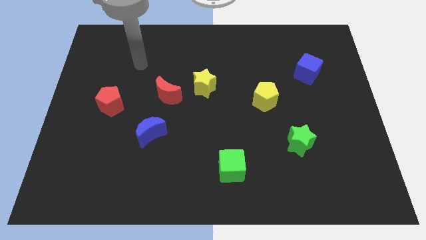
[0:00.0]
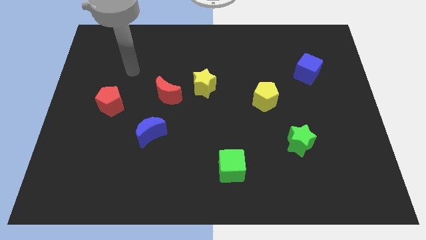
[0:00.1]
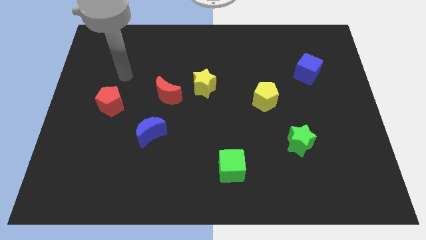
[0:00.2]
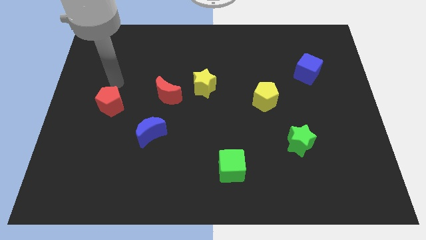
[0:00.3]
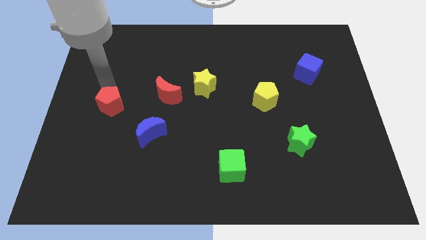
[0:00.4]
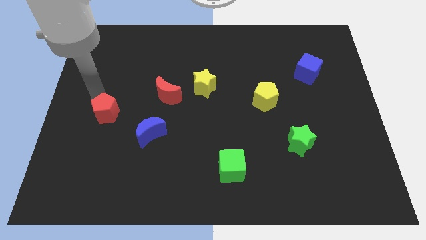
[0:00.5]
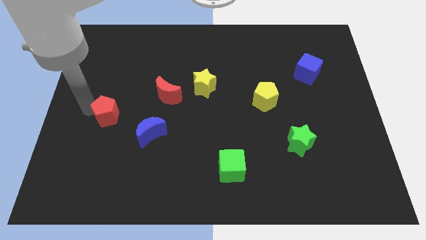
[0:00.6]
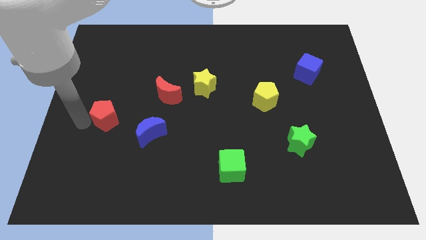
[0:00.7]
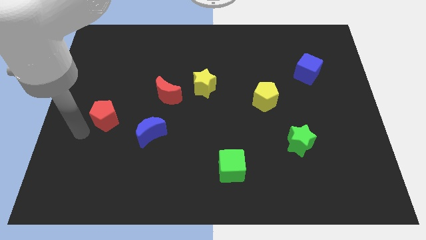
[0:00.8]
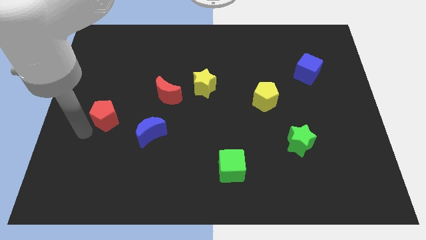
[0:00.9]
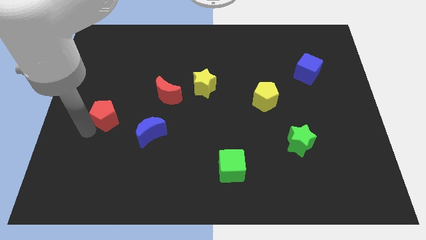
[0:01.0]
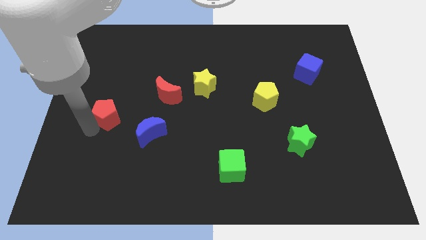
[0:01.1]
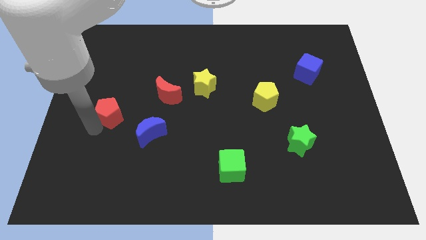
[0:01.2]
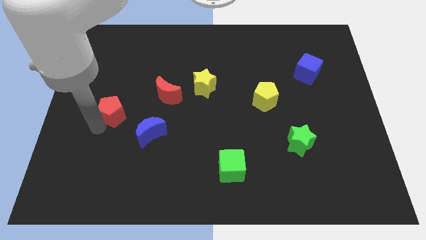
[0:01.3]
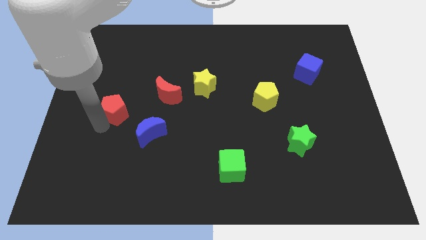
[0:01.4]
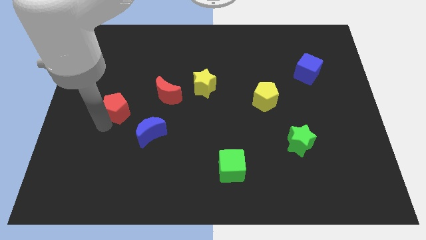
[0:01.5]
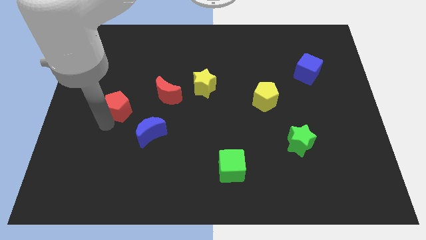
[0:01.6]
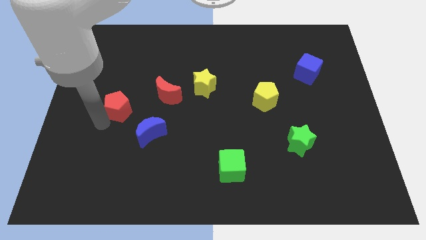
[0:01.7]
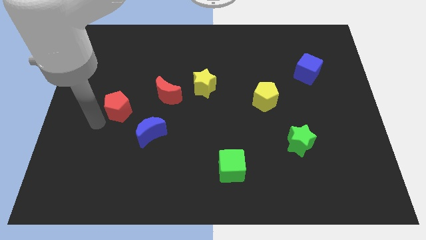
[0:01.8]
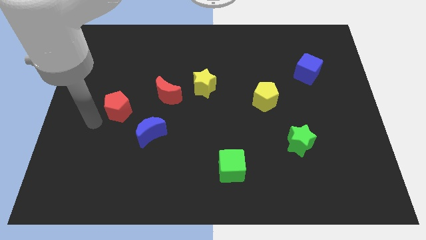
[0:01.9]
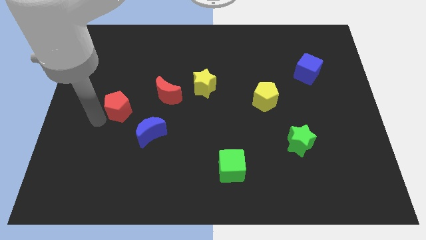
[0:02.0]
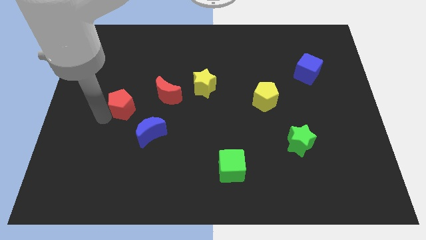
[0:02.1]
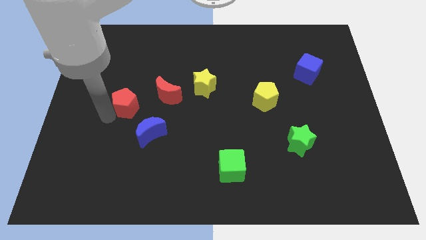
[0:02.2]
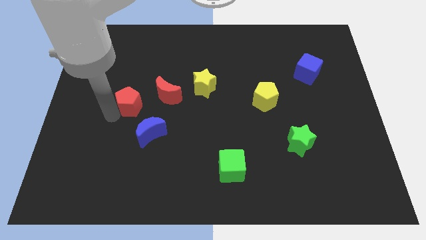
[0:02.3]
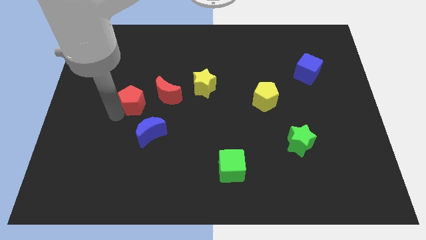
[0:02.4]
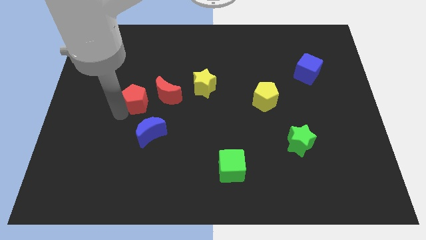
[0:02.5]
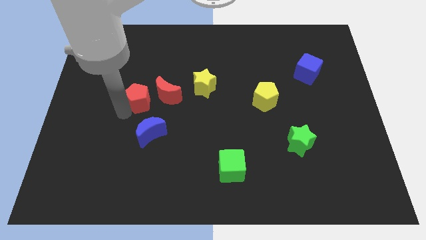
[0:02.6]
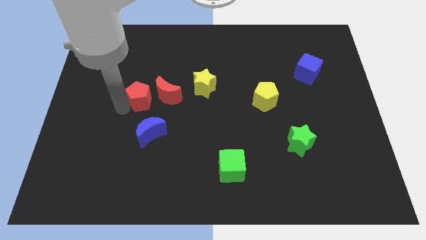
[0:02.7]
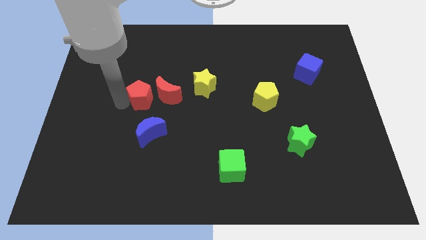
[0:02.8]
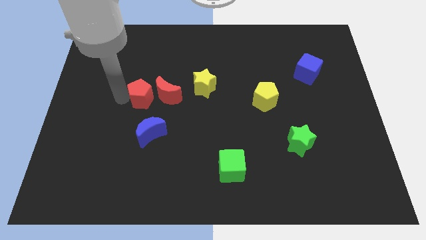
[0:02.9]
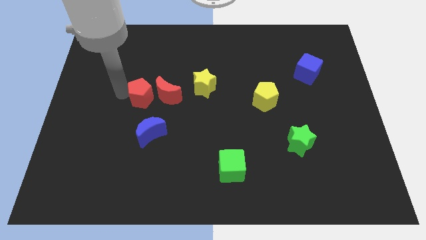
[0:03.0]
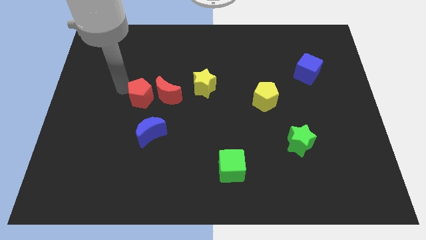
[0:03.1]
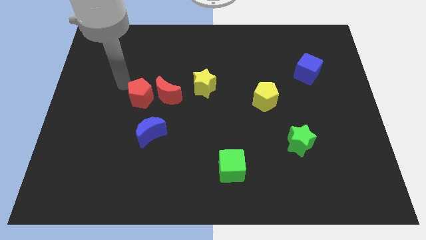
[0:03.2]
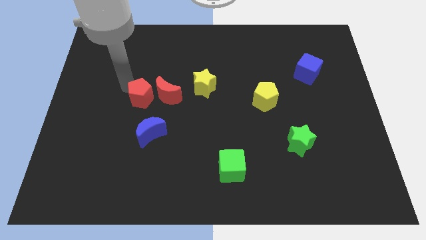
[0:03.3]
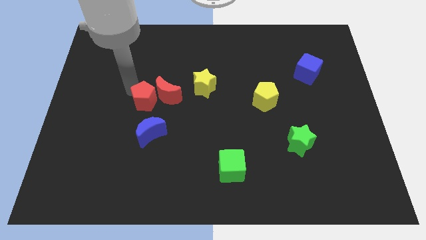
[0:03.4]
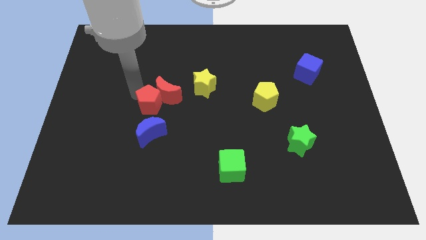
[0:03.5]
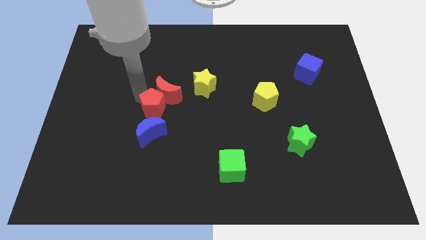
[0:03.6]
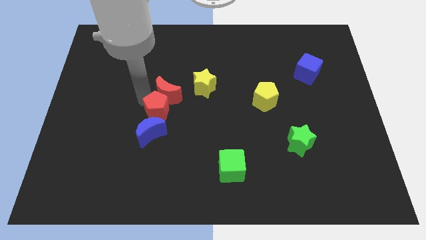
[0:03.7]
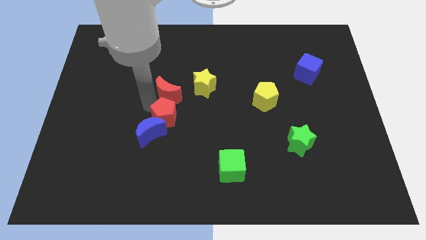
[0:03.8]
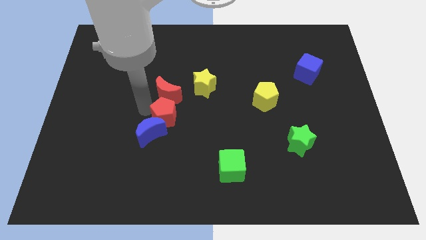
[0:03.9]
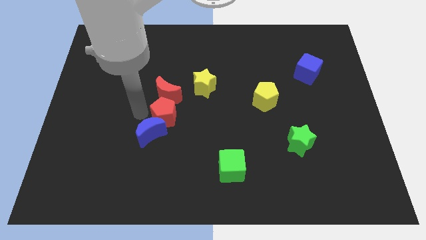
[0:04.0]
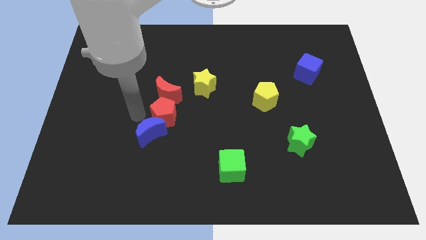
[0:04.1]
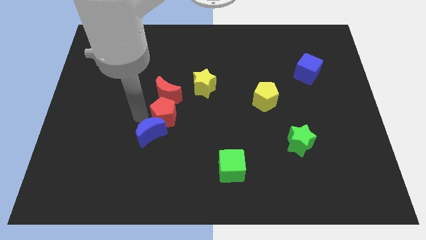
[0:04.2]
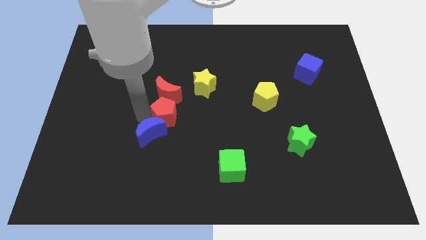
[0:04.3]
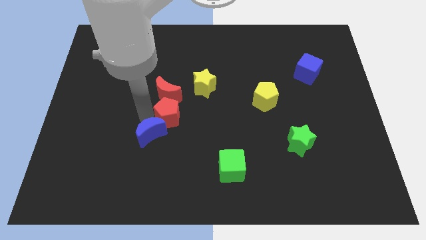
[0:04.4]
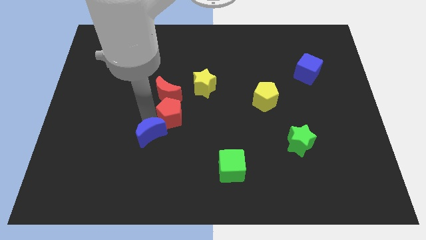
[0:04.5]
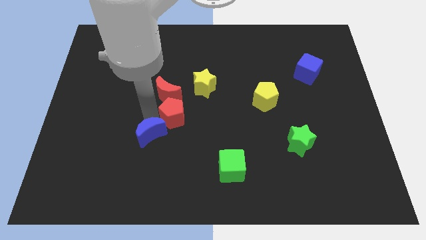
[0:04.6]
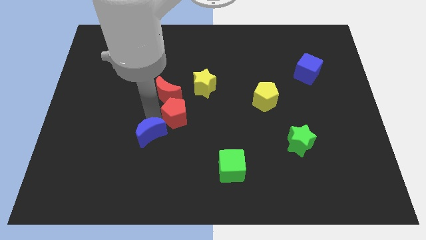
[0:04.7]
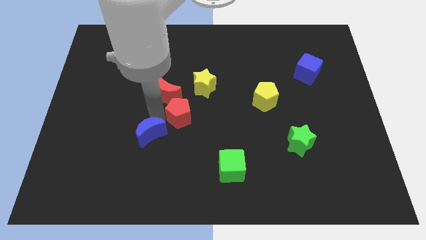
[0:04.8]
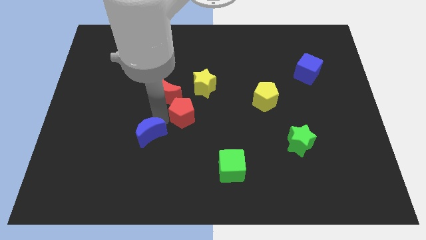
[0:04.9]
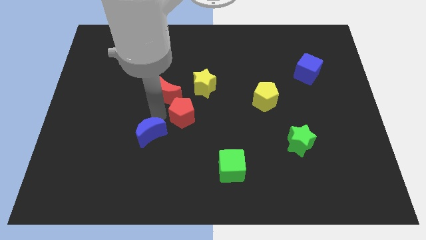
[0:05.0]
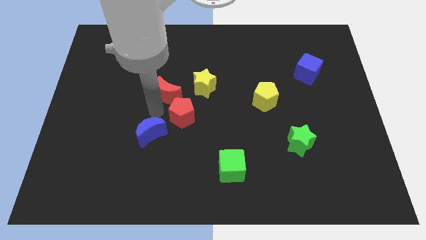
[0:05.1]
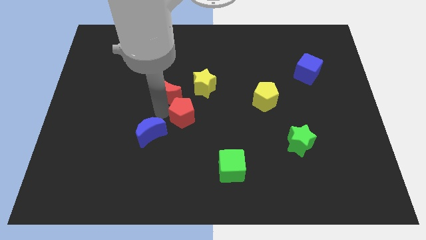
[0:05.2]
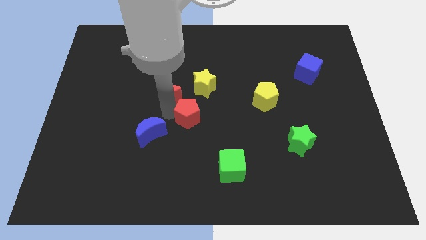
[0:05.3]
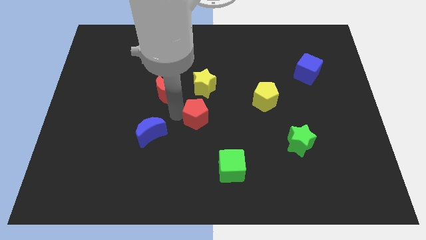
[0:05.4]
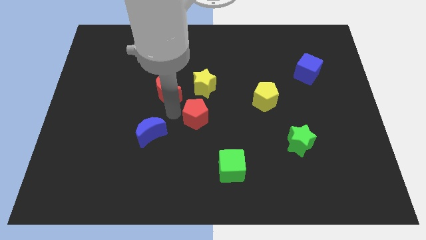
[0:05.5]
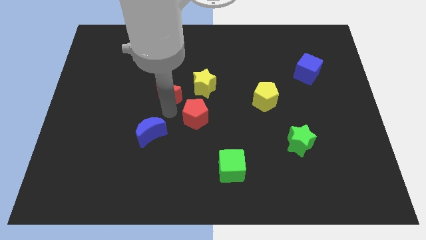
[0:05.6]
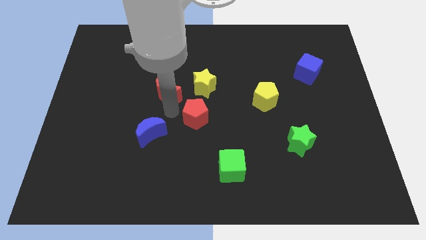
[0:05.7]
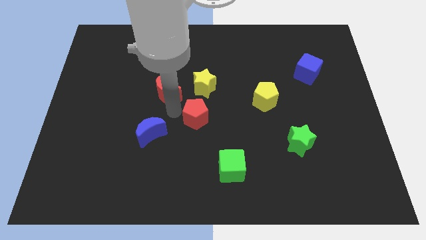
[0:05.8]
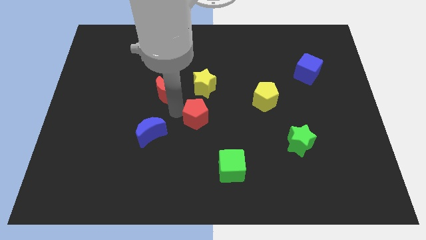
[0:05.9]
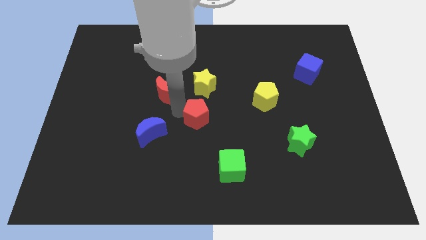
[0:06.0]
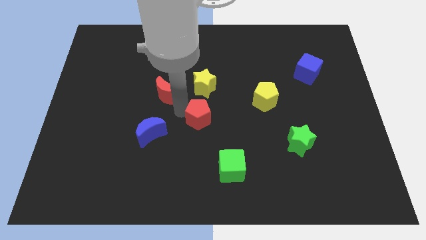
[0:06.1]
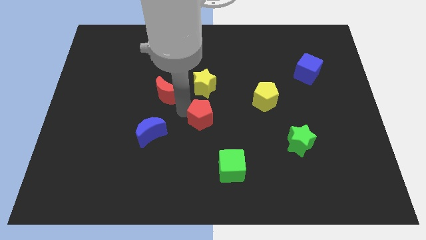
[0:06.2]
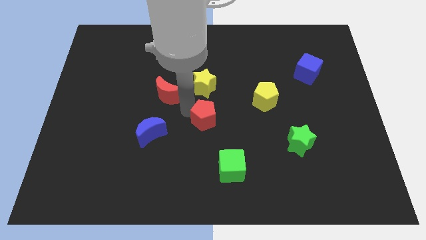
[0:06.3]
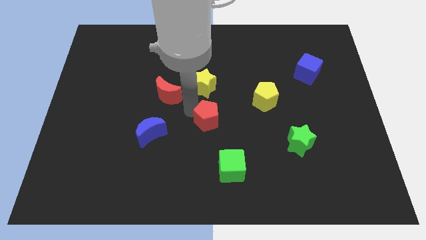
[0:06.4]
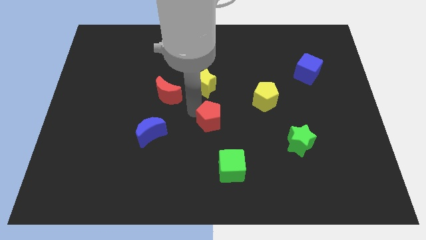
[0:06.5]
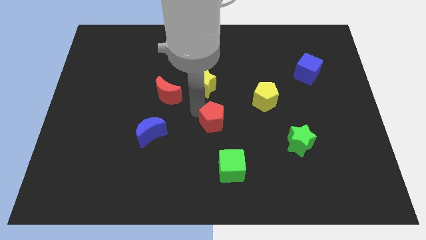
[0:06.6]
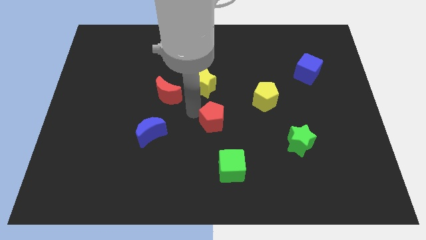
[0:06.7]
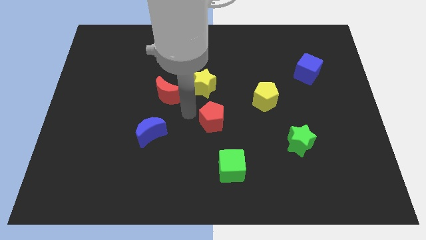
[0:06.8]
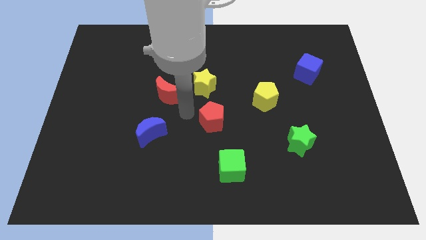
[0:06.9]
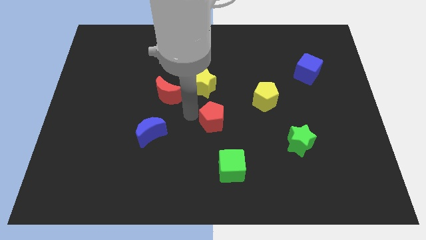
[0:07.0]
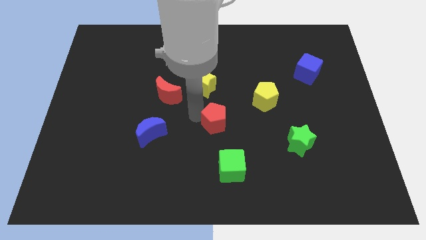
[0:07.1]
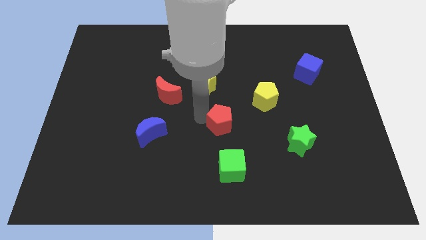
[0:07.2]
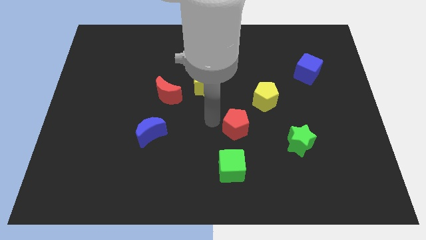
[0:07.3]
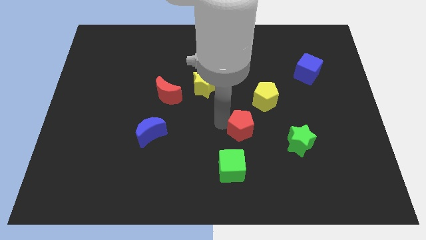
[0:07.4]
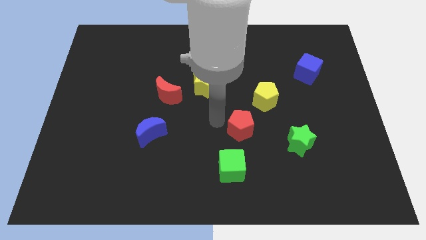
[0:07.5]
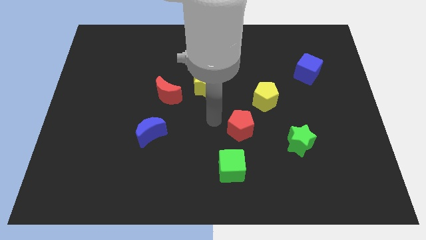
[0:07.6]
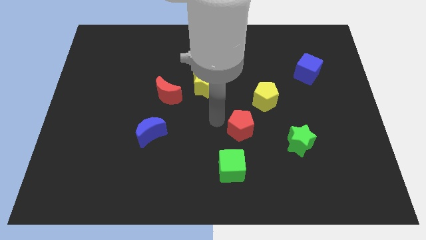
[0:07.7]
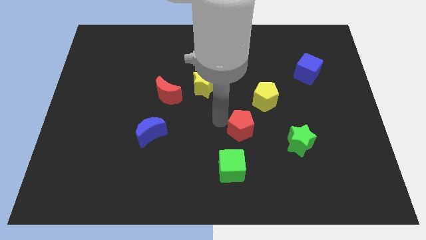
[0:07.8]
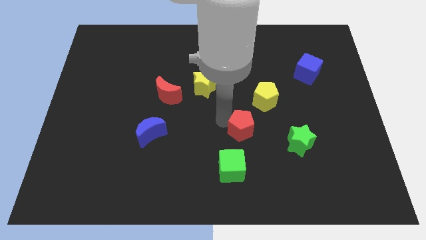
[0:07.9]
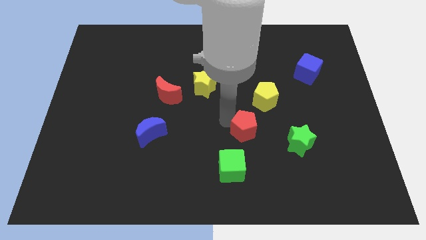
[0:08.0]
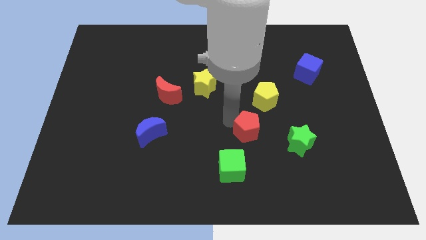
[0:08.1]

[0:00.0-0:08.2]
put the red pentagon below the yellow pentagon
